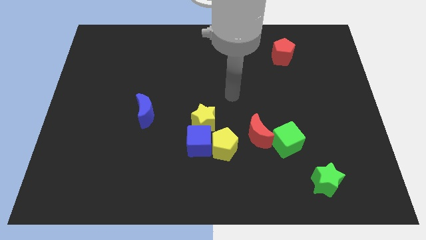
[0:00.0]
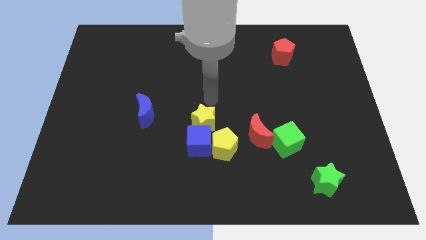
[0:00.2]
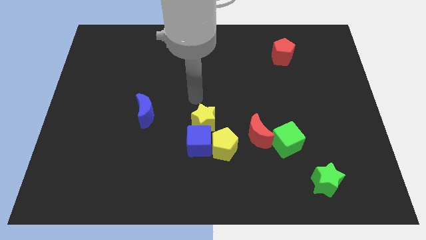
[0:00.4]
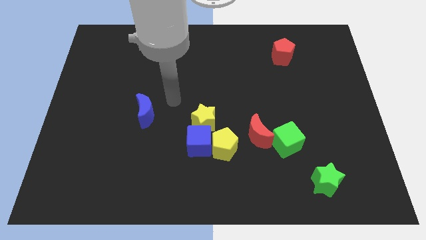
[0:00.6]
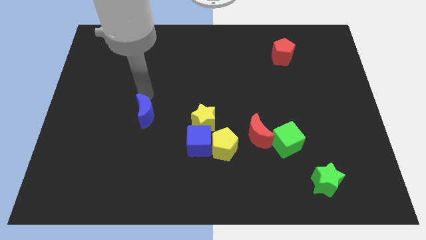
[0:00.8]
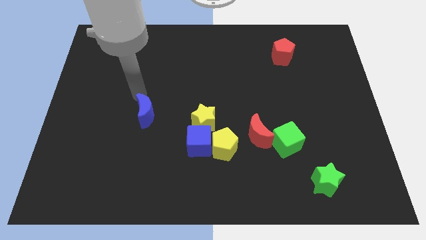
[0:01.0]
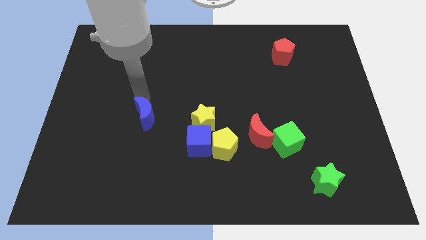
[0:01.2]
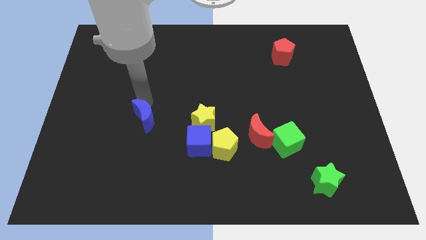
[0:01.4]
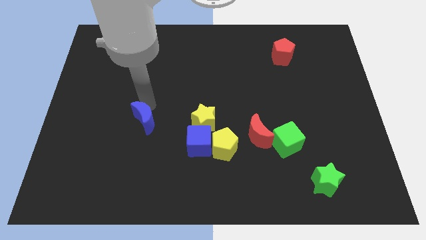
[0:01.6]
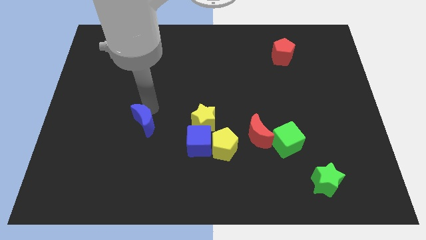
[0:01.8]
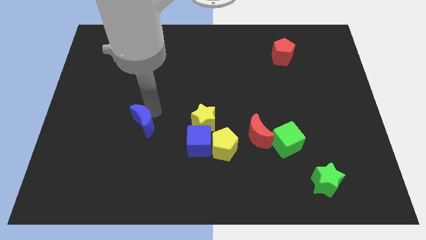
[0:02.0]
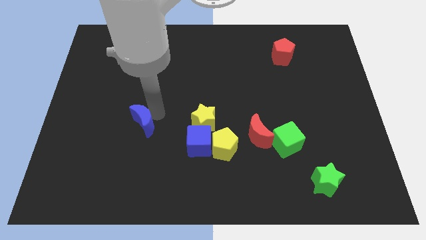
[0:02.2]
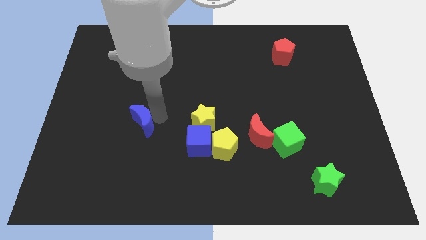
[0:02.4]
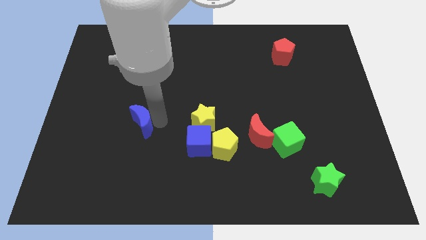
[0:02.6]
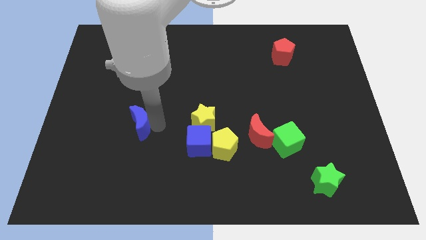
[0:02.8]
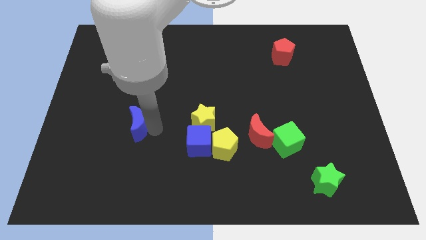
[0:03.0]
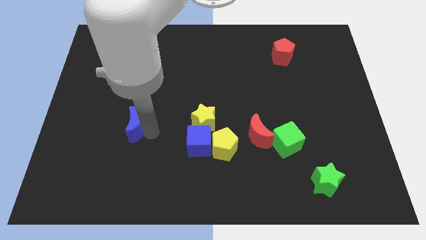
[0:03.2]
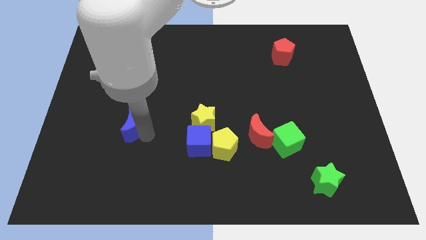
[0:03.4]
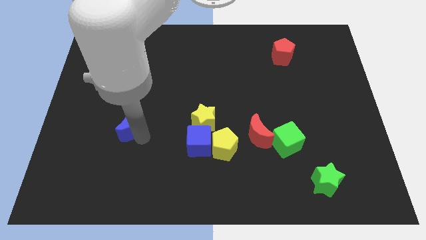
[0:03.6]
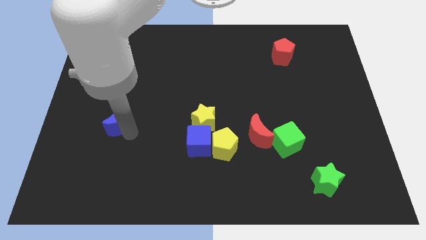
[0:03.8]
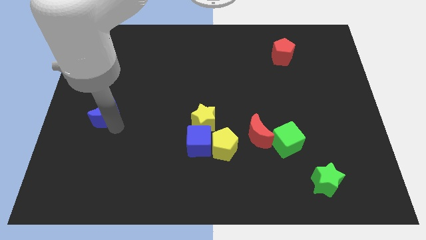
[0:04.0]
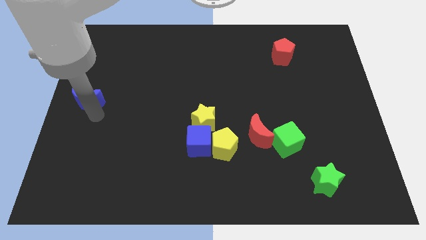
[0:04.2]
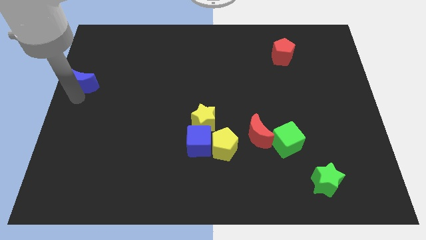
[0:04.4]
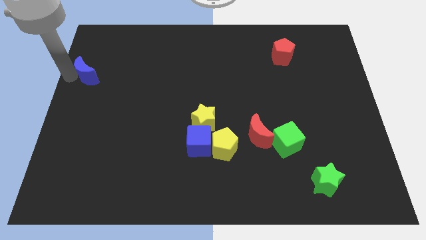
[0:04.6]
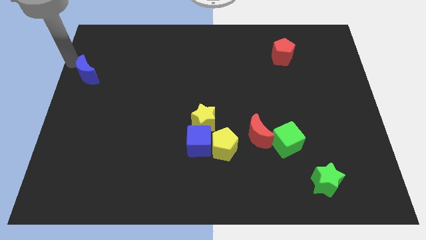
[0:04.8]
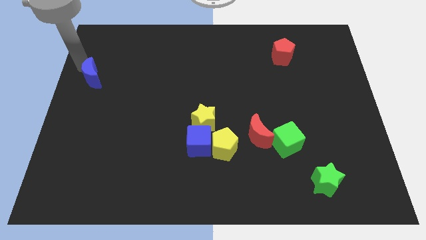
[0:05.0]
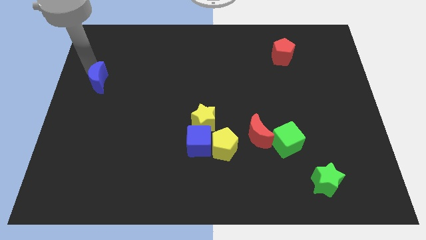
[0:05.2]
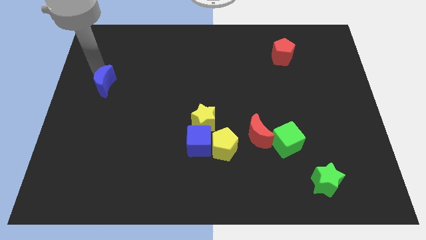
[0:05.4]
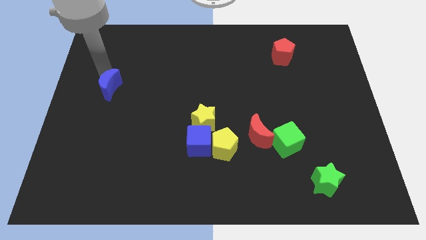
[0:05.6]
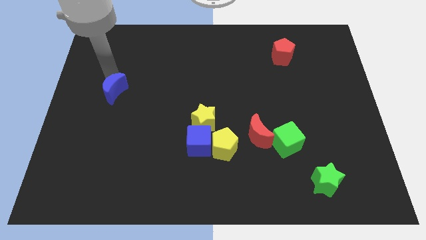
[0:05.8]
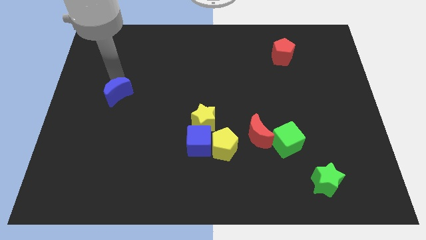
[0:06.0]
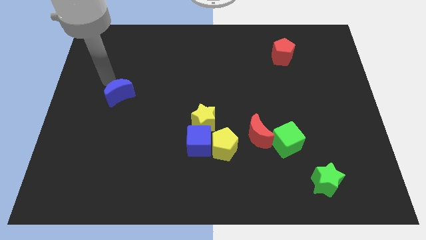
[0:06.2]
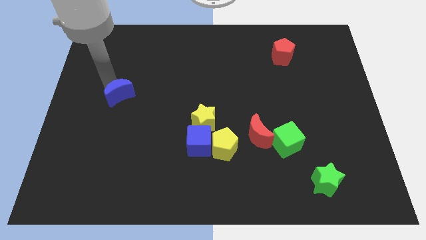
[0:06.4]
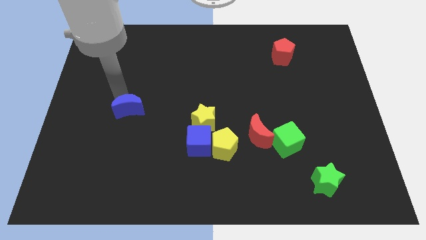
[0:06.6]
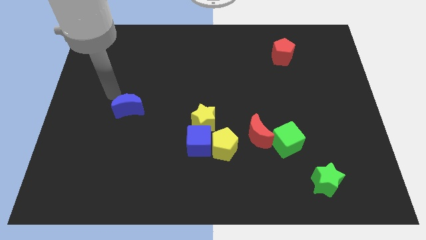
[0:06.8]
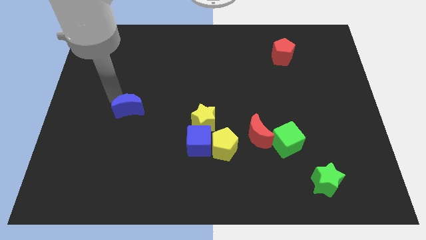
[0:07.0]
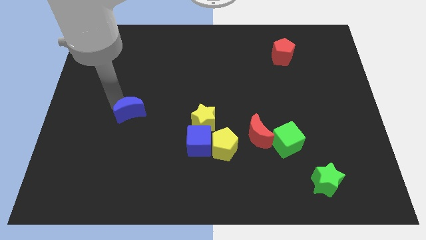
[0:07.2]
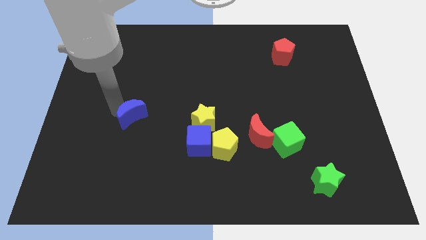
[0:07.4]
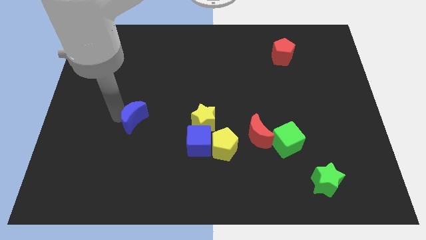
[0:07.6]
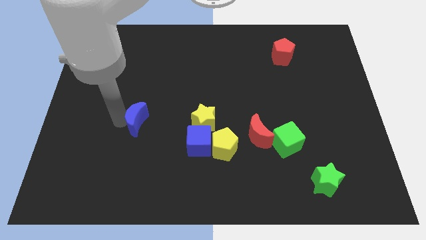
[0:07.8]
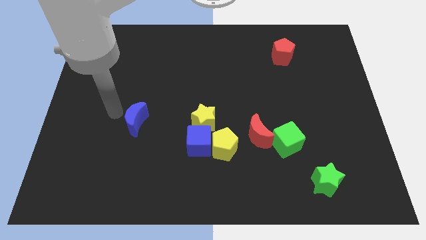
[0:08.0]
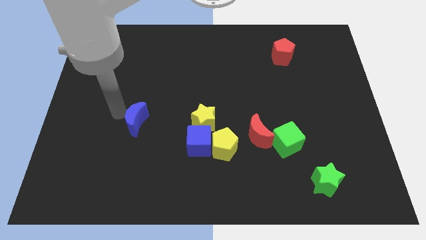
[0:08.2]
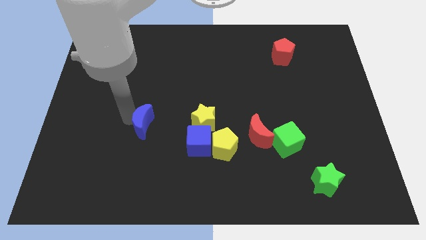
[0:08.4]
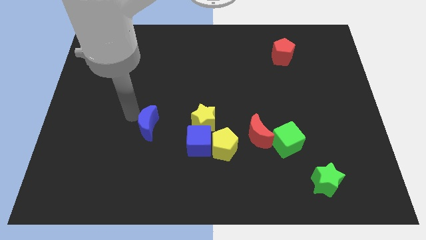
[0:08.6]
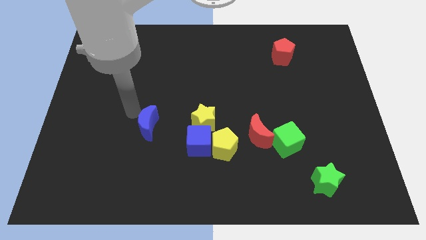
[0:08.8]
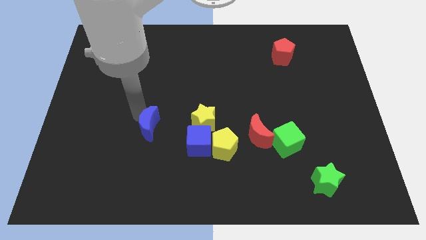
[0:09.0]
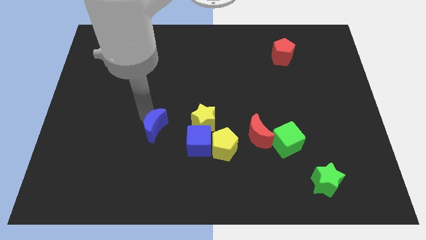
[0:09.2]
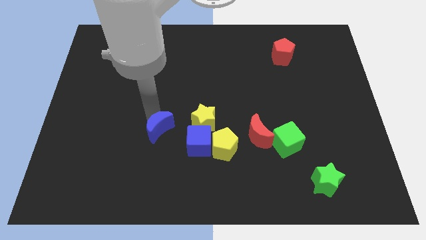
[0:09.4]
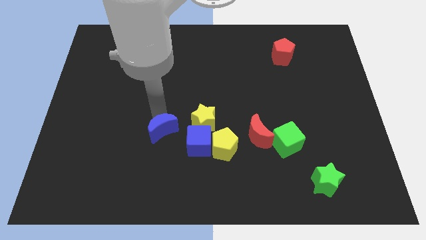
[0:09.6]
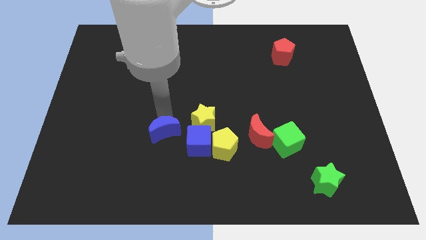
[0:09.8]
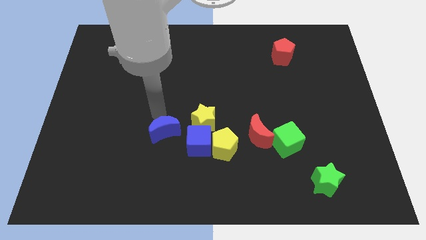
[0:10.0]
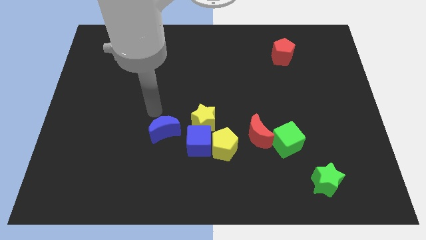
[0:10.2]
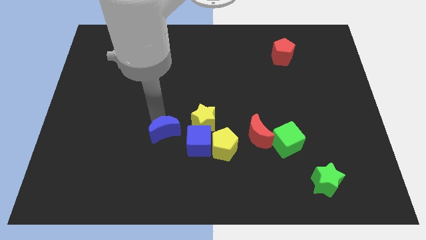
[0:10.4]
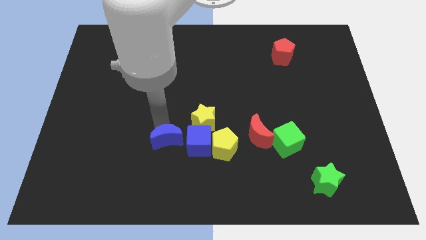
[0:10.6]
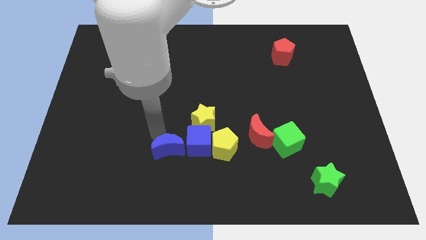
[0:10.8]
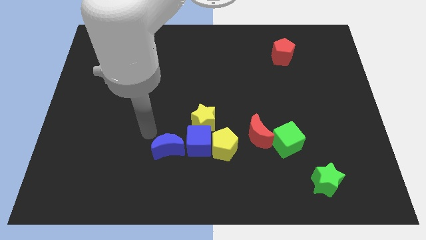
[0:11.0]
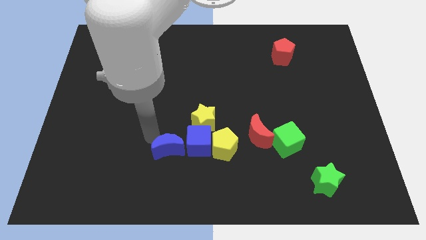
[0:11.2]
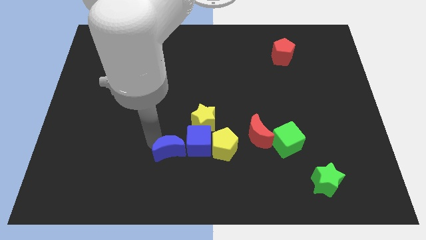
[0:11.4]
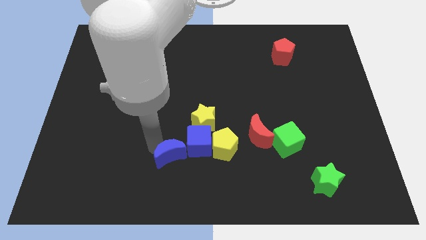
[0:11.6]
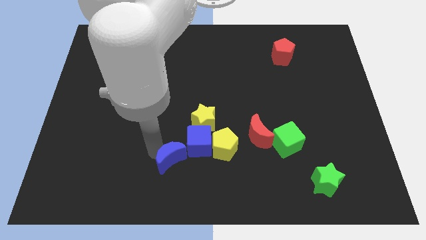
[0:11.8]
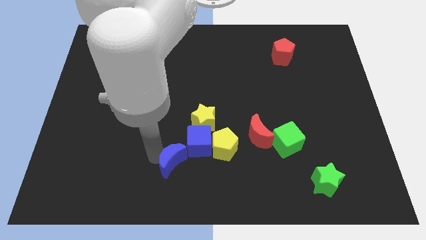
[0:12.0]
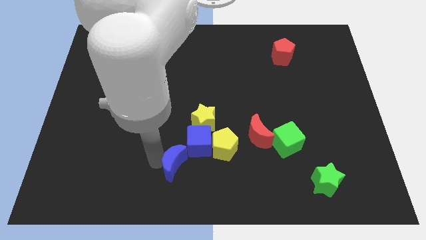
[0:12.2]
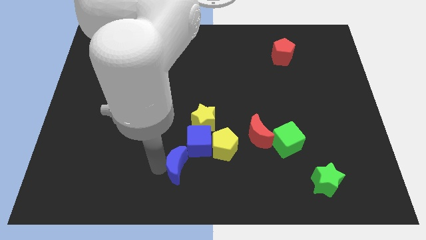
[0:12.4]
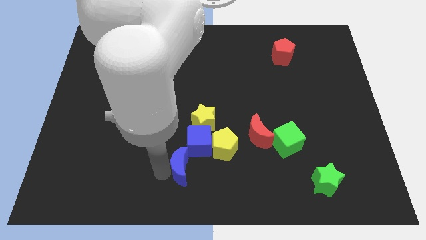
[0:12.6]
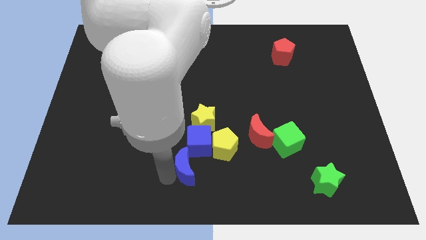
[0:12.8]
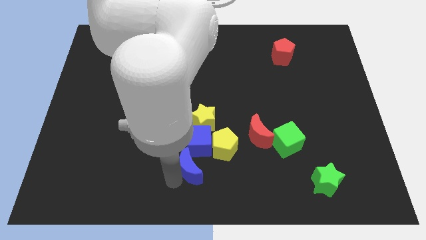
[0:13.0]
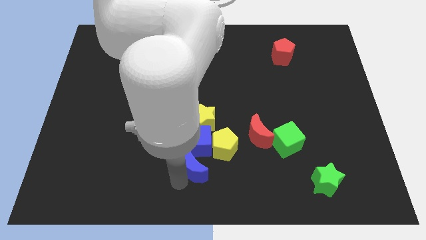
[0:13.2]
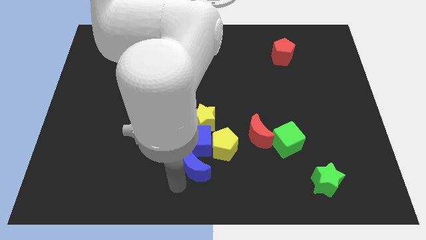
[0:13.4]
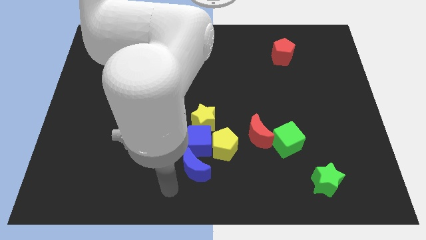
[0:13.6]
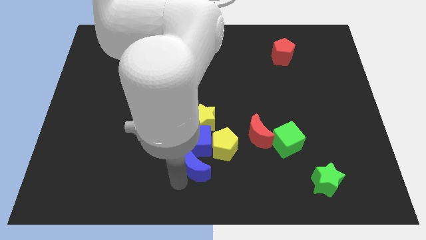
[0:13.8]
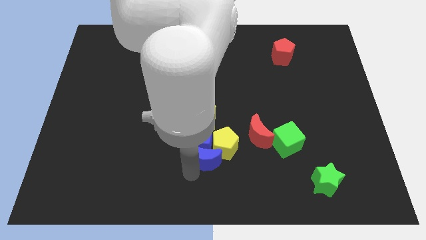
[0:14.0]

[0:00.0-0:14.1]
put the blue moon to the yellow pentagon
